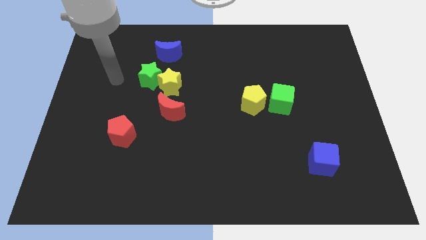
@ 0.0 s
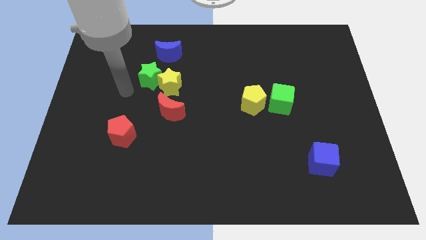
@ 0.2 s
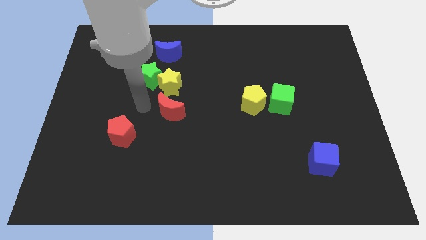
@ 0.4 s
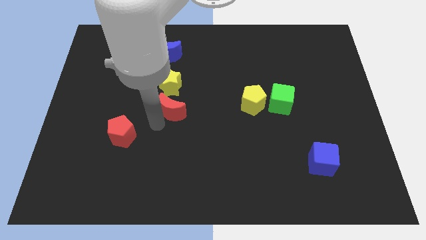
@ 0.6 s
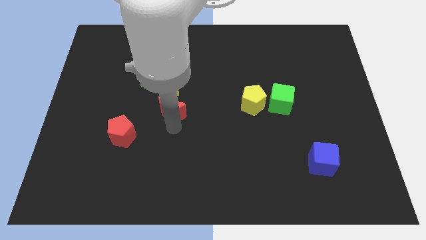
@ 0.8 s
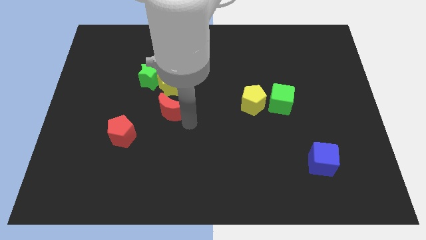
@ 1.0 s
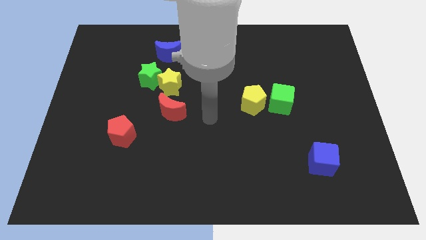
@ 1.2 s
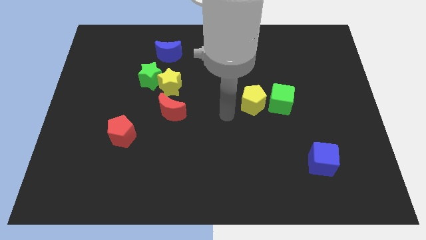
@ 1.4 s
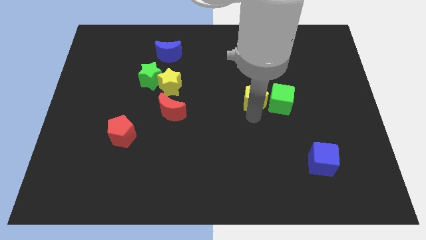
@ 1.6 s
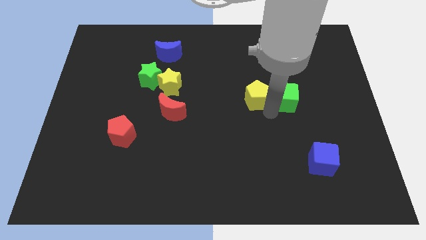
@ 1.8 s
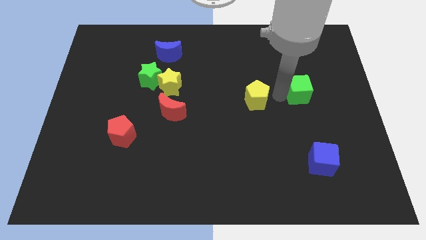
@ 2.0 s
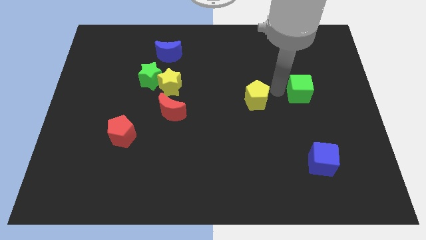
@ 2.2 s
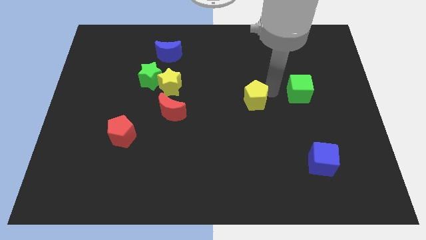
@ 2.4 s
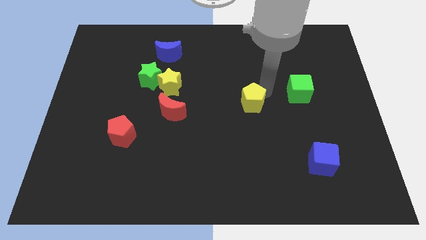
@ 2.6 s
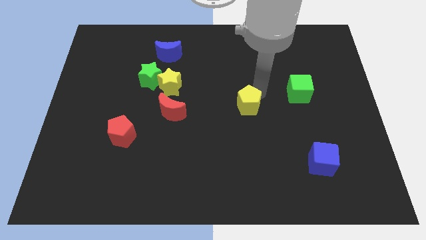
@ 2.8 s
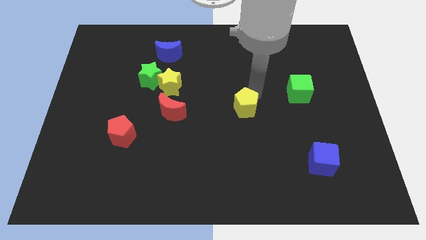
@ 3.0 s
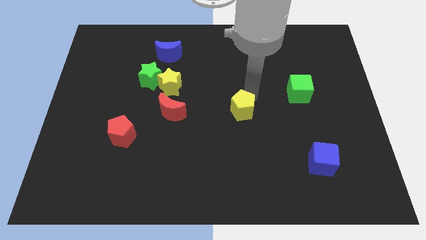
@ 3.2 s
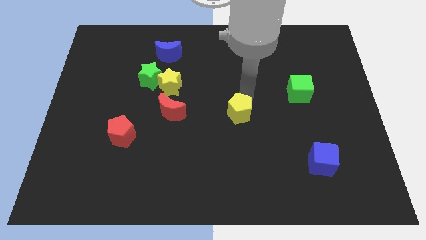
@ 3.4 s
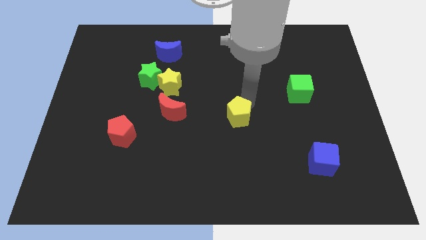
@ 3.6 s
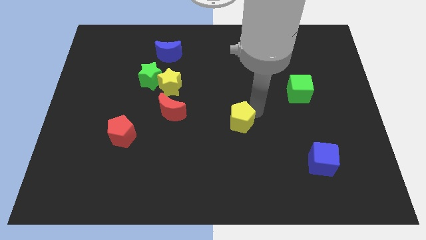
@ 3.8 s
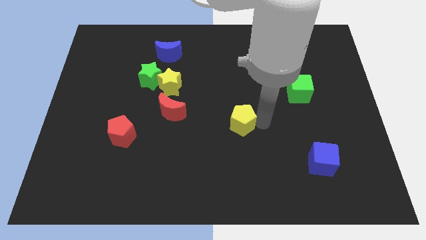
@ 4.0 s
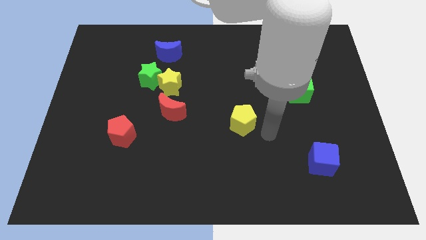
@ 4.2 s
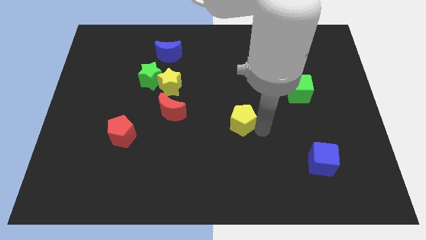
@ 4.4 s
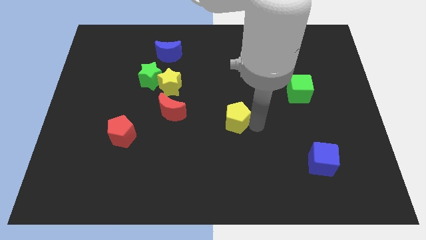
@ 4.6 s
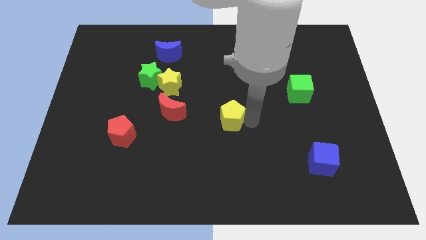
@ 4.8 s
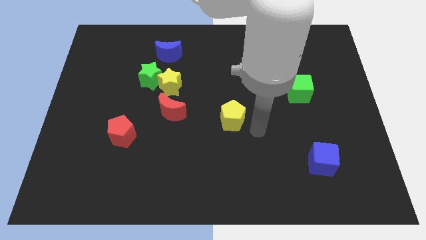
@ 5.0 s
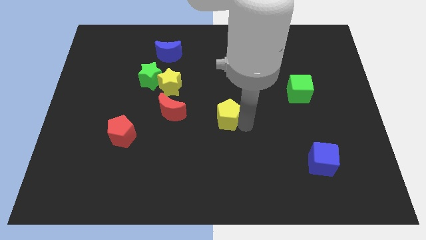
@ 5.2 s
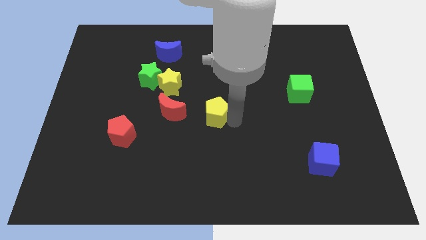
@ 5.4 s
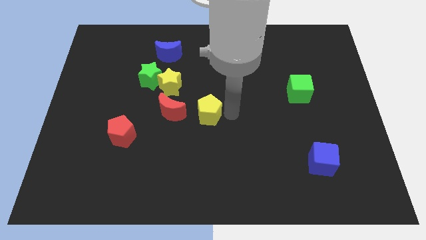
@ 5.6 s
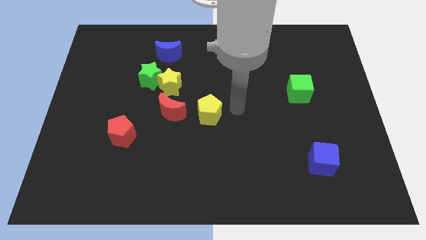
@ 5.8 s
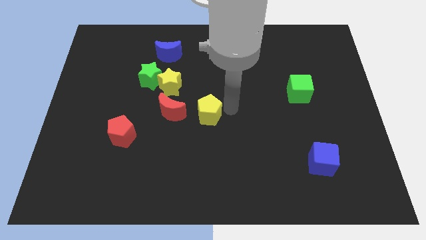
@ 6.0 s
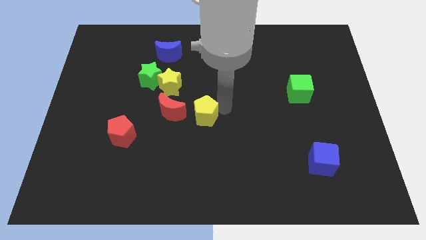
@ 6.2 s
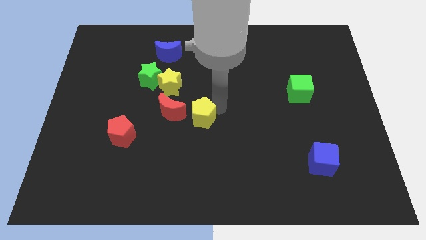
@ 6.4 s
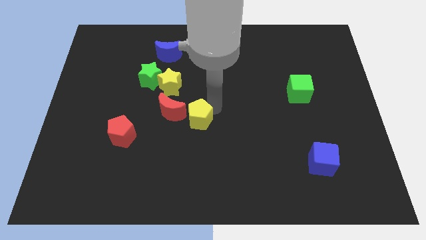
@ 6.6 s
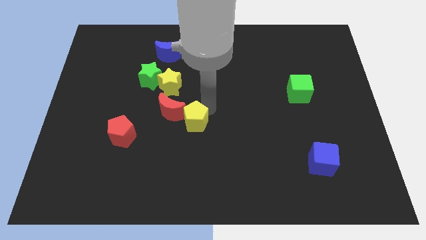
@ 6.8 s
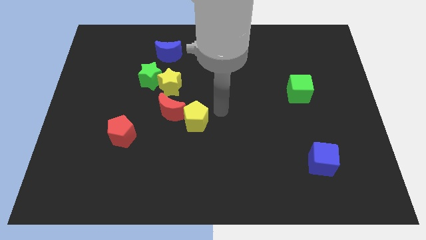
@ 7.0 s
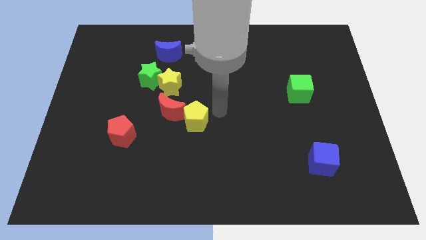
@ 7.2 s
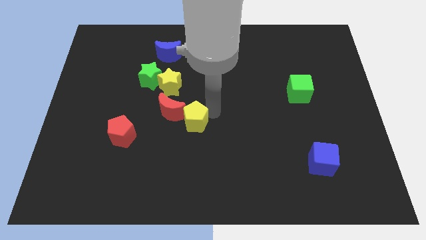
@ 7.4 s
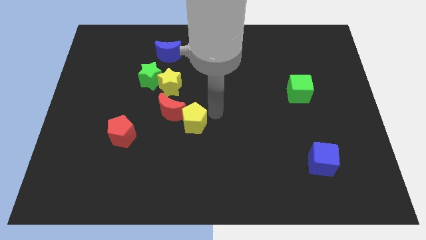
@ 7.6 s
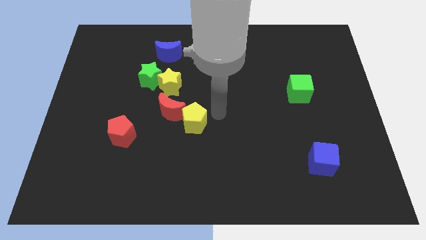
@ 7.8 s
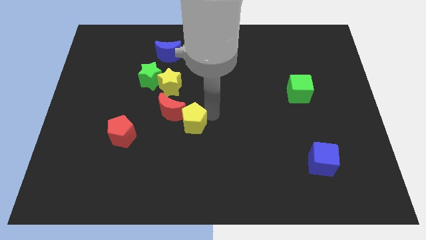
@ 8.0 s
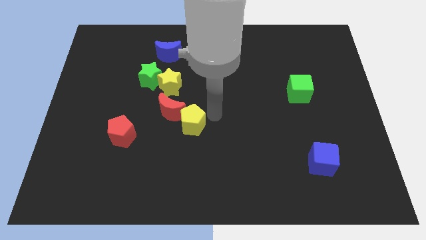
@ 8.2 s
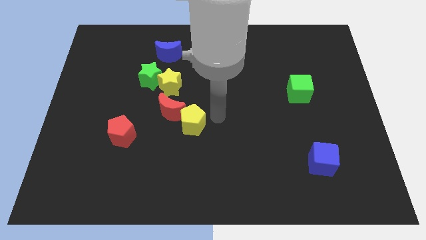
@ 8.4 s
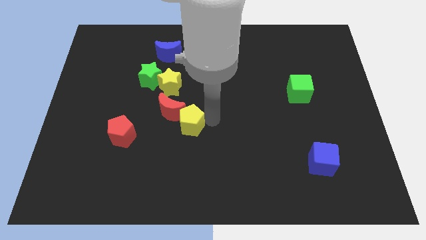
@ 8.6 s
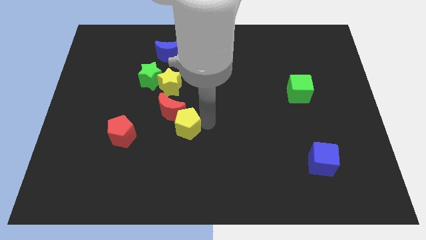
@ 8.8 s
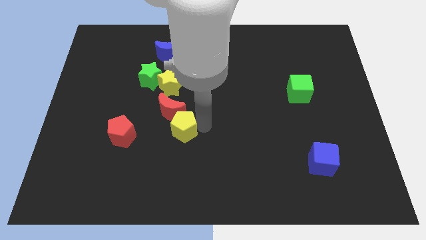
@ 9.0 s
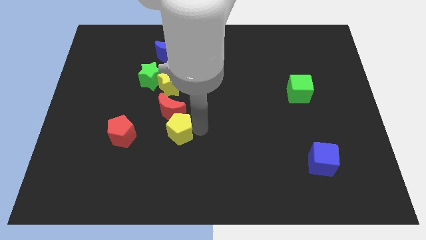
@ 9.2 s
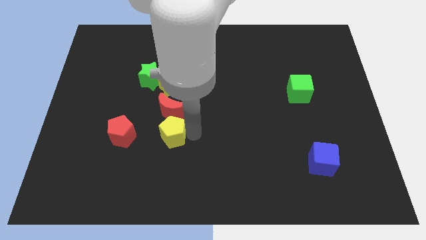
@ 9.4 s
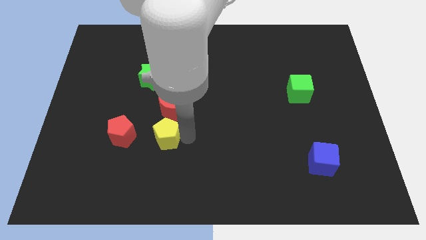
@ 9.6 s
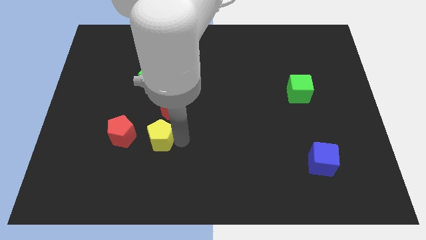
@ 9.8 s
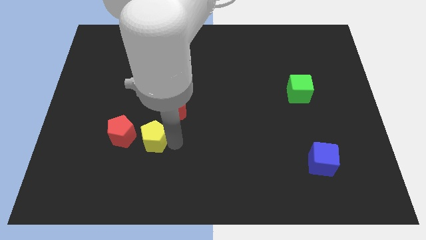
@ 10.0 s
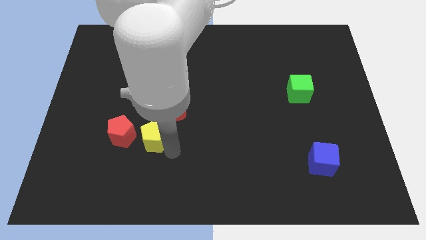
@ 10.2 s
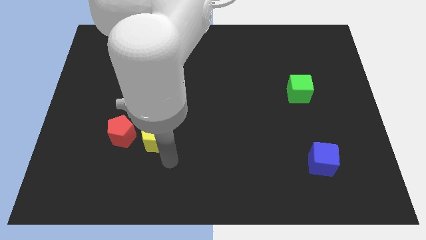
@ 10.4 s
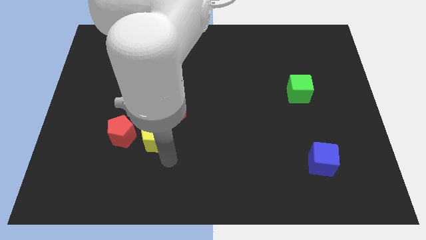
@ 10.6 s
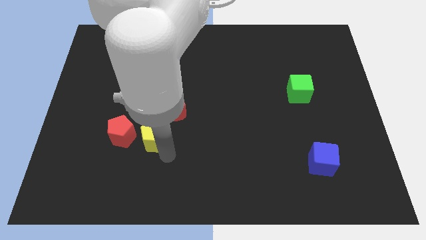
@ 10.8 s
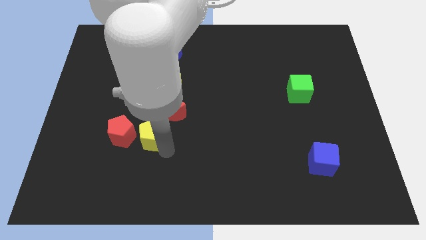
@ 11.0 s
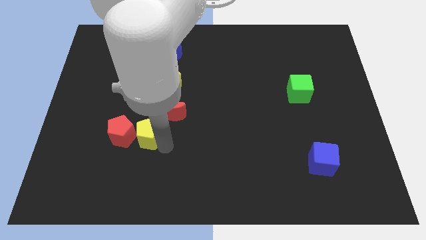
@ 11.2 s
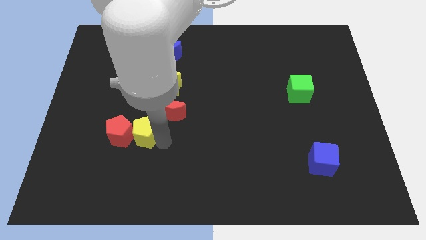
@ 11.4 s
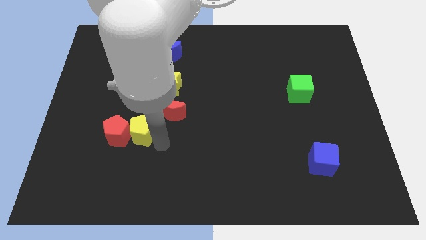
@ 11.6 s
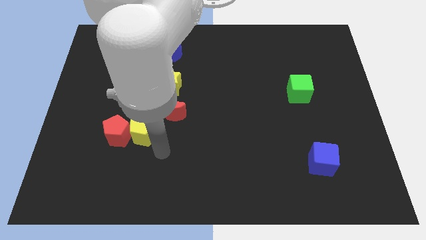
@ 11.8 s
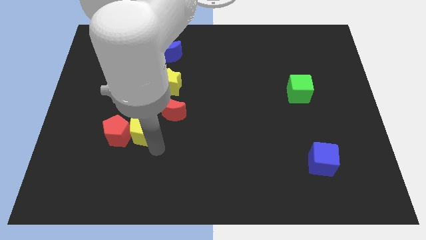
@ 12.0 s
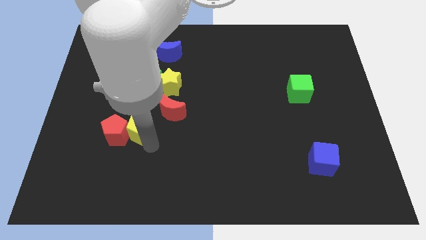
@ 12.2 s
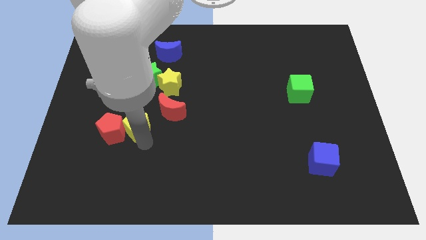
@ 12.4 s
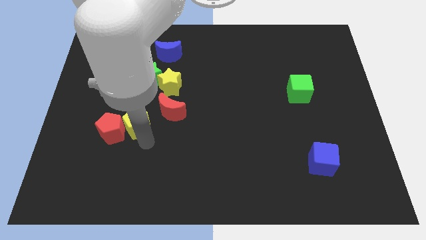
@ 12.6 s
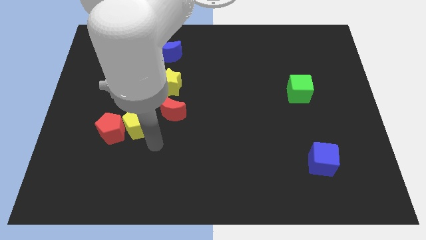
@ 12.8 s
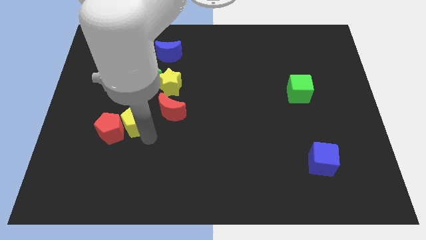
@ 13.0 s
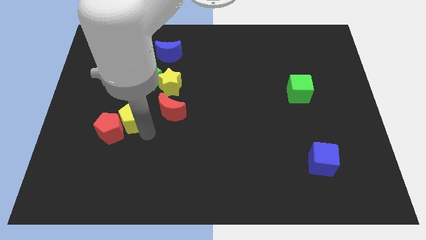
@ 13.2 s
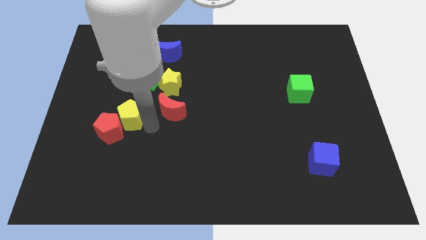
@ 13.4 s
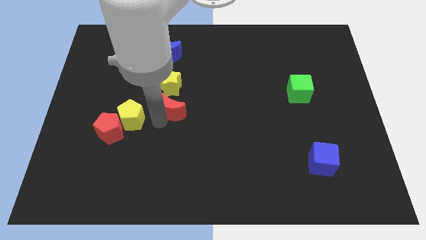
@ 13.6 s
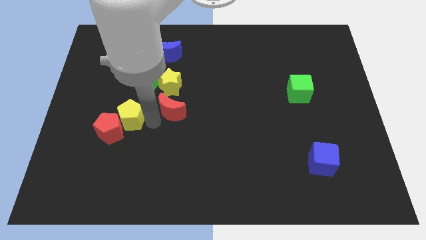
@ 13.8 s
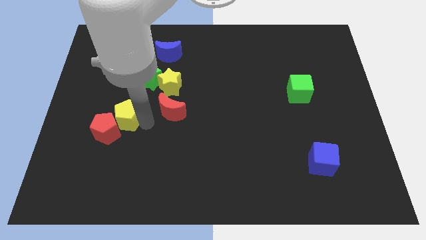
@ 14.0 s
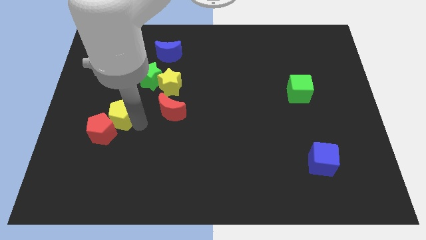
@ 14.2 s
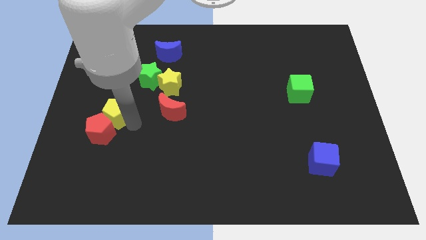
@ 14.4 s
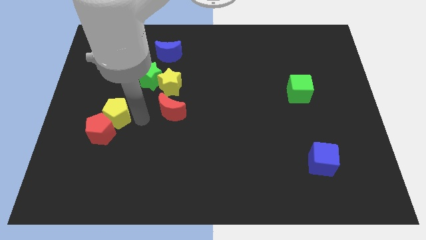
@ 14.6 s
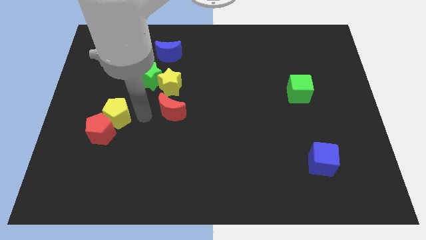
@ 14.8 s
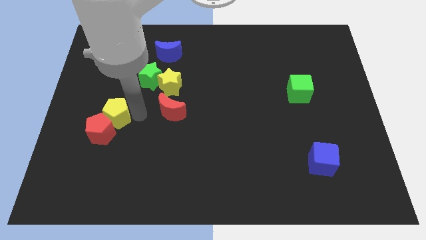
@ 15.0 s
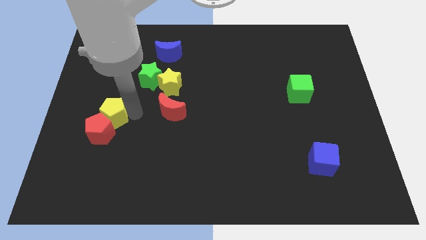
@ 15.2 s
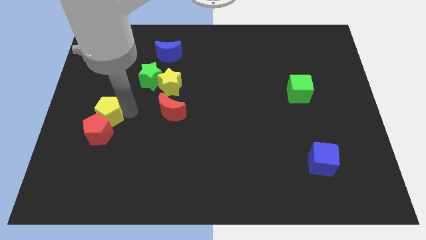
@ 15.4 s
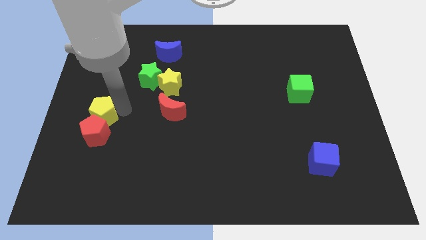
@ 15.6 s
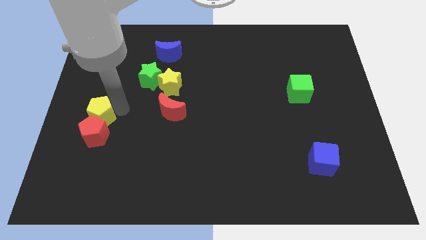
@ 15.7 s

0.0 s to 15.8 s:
push the yellow pentagon to the center left
